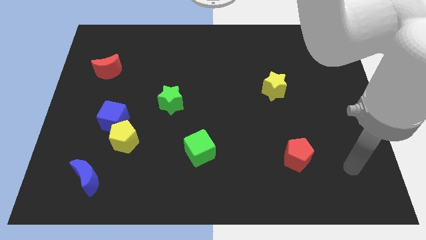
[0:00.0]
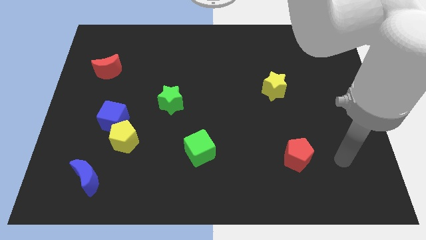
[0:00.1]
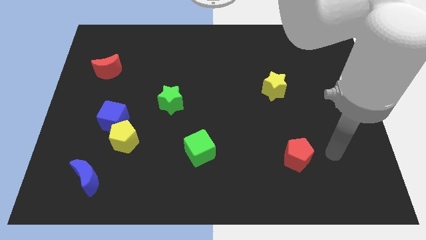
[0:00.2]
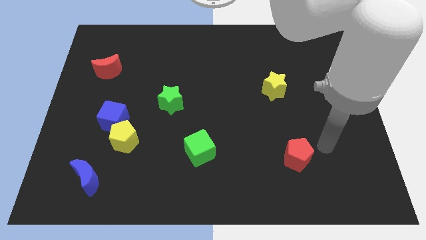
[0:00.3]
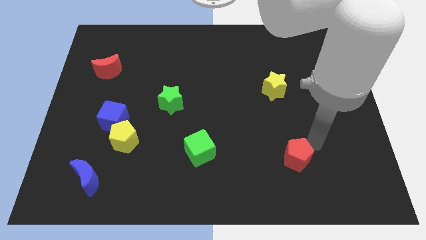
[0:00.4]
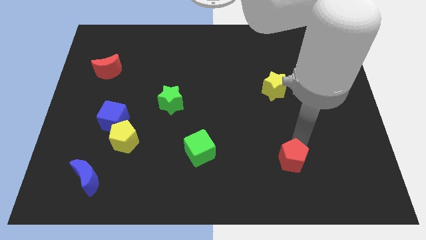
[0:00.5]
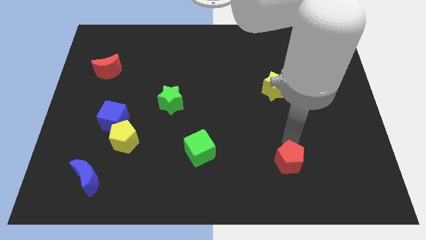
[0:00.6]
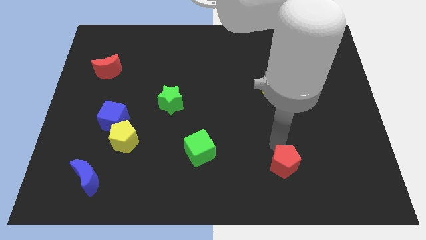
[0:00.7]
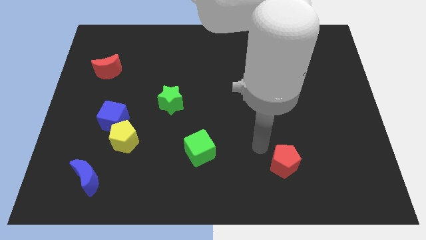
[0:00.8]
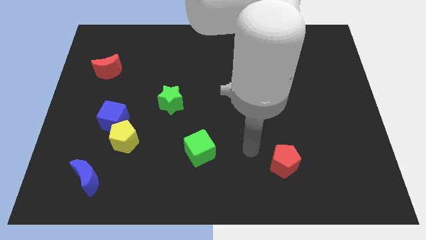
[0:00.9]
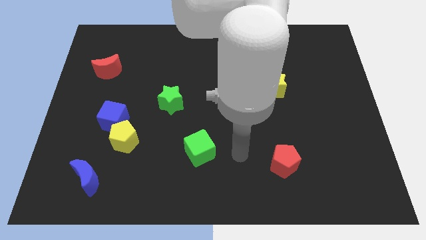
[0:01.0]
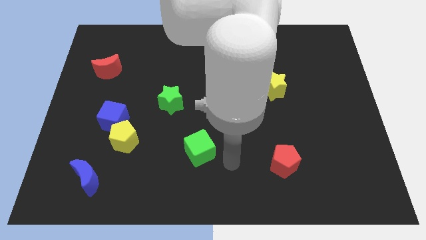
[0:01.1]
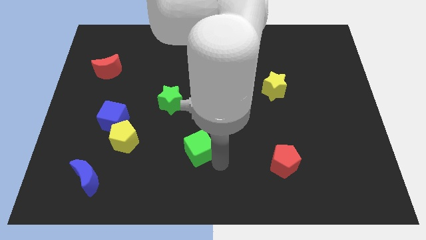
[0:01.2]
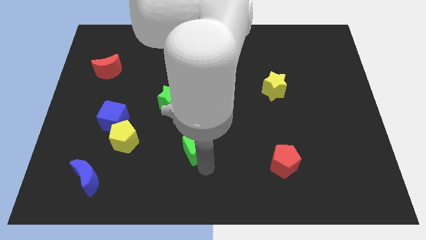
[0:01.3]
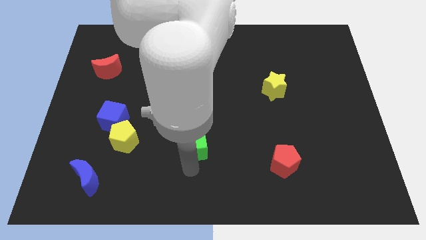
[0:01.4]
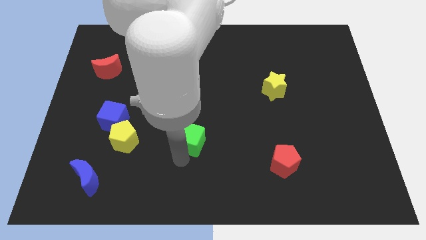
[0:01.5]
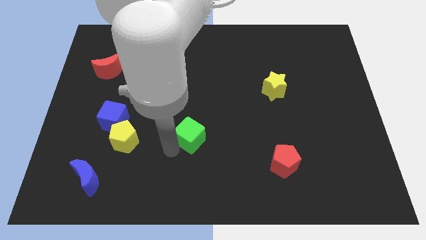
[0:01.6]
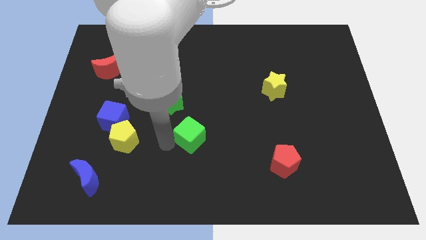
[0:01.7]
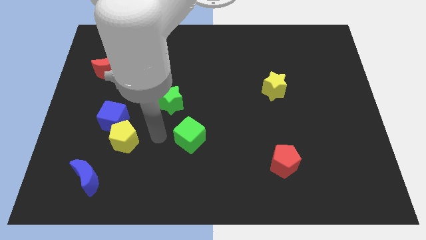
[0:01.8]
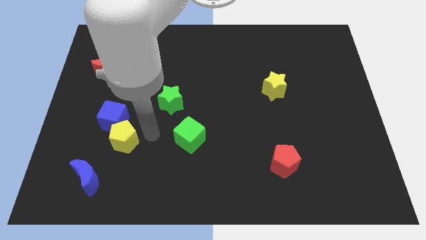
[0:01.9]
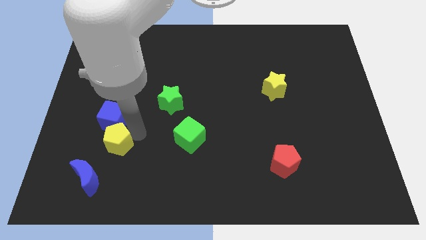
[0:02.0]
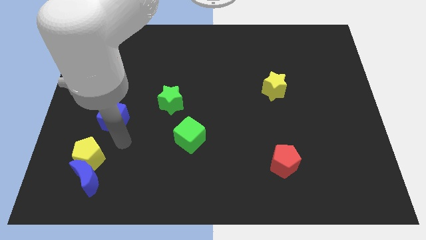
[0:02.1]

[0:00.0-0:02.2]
move the blue cube away from the yellow pentagon

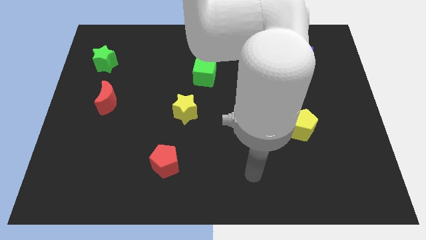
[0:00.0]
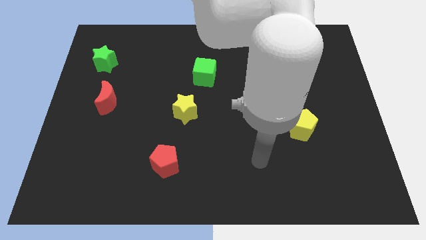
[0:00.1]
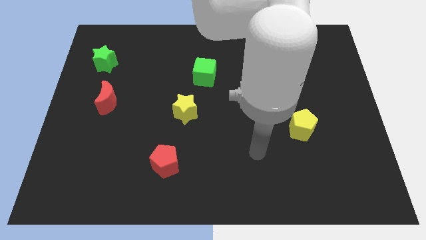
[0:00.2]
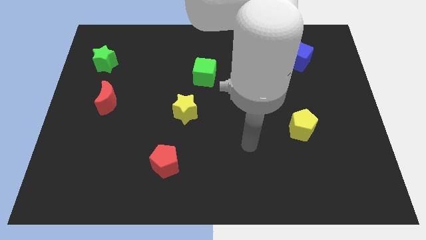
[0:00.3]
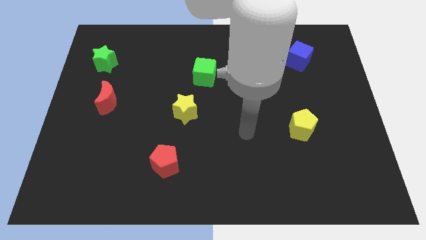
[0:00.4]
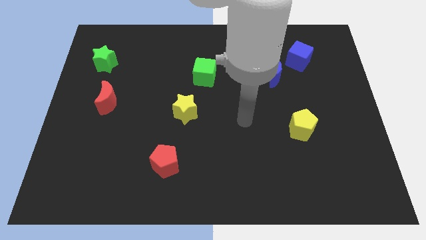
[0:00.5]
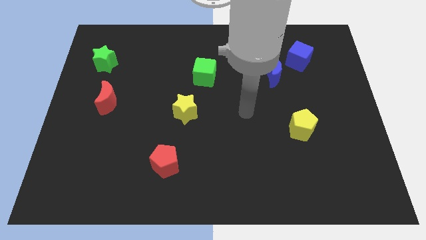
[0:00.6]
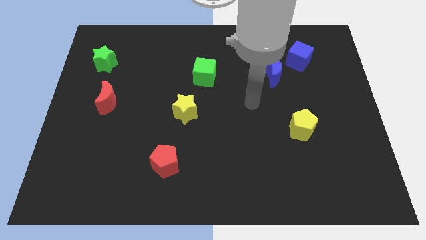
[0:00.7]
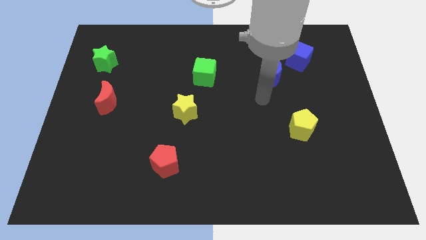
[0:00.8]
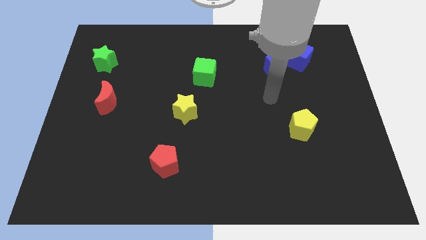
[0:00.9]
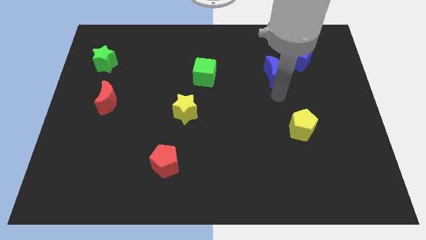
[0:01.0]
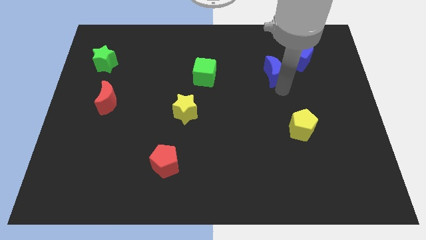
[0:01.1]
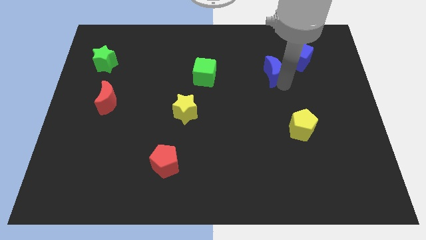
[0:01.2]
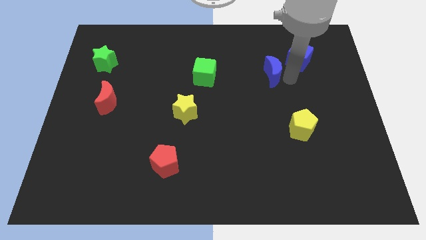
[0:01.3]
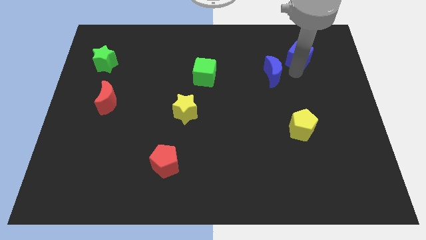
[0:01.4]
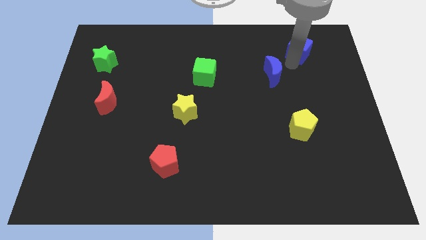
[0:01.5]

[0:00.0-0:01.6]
pull the blue moon apart from the blue cube

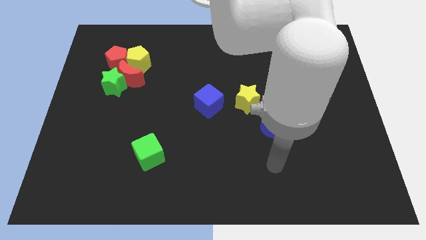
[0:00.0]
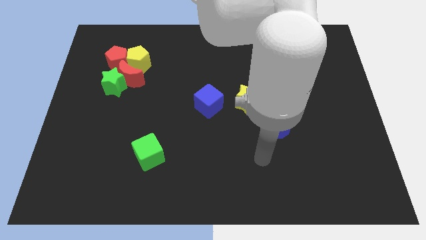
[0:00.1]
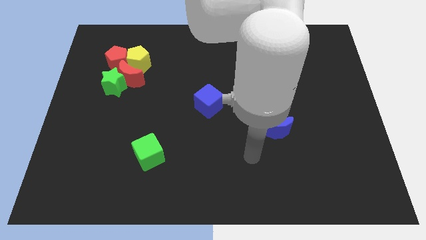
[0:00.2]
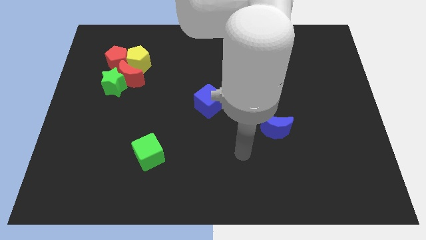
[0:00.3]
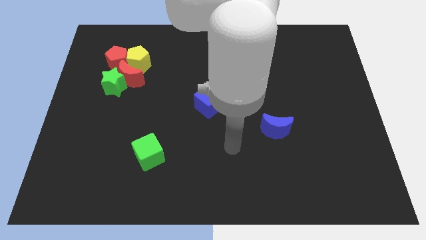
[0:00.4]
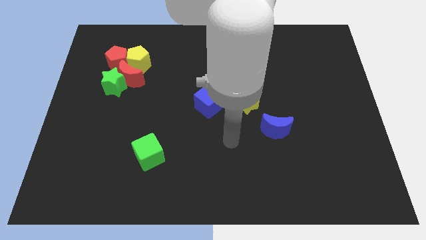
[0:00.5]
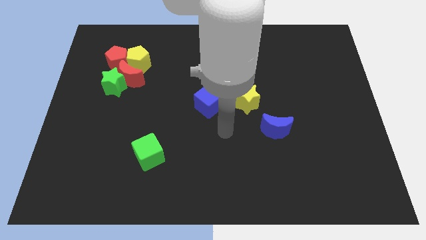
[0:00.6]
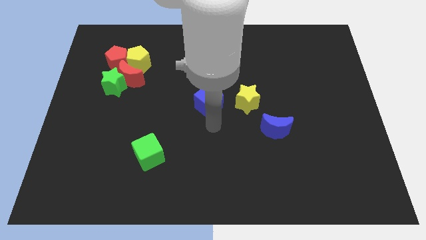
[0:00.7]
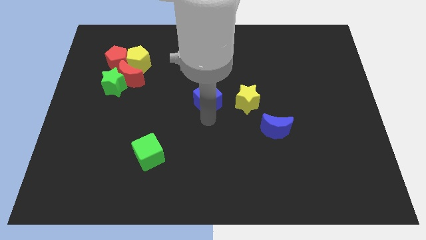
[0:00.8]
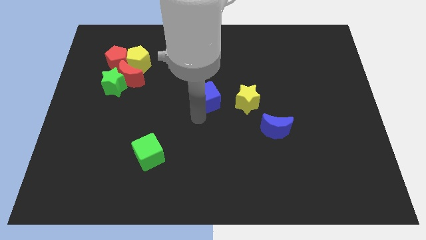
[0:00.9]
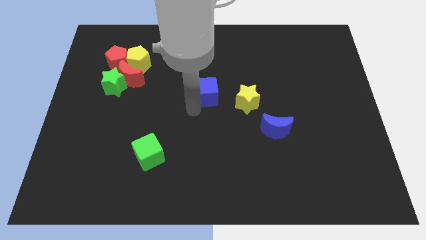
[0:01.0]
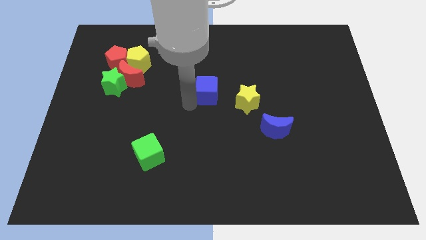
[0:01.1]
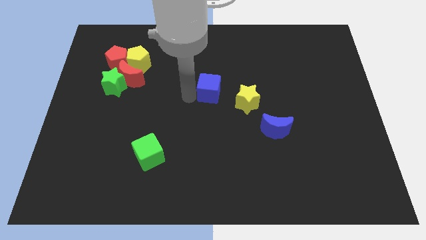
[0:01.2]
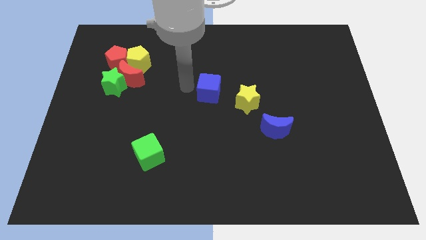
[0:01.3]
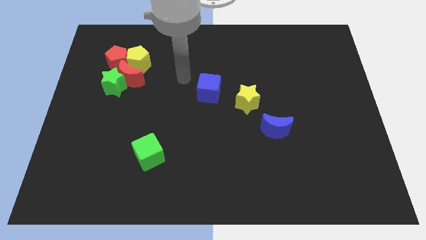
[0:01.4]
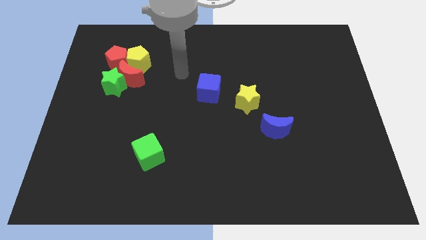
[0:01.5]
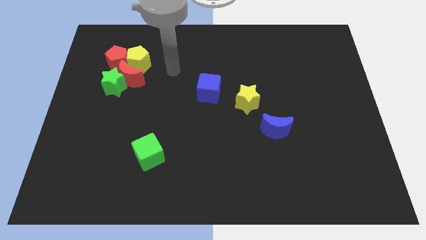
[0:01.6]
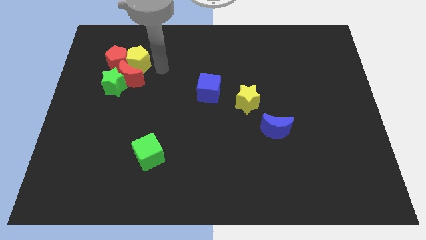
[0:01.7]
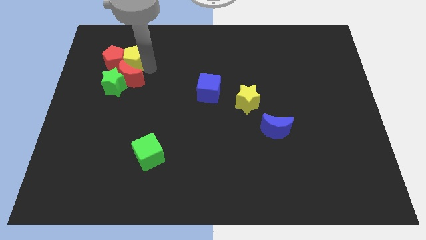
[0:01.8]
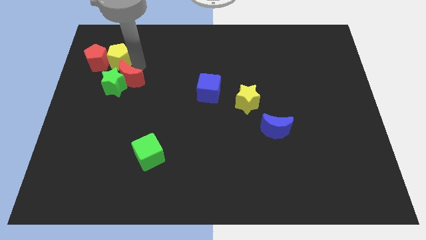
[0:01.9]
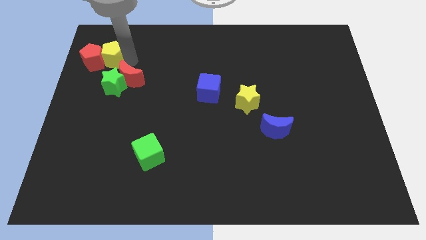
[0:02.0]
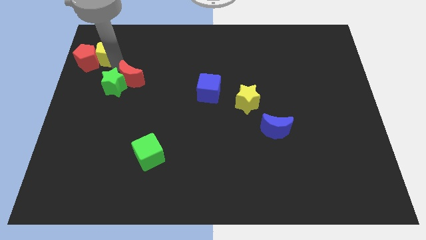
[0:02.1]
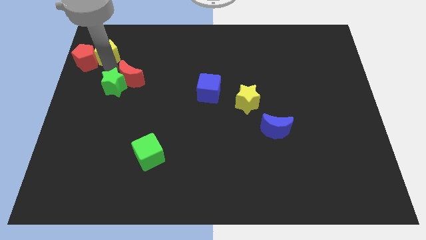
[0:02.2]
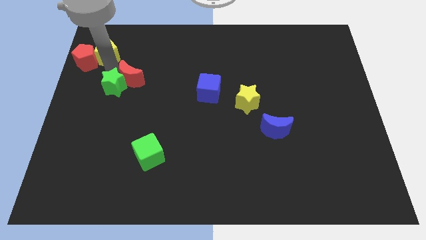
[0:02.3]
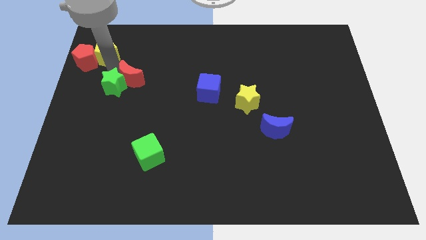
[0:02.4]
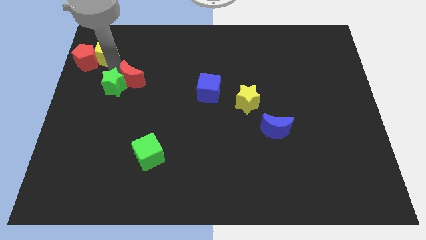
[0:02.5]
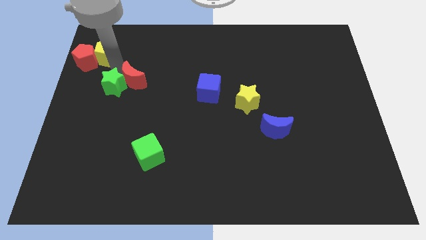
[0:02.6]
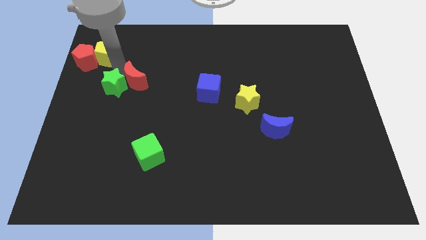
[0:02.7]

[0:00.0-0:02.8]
move the red moon away from the group of blocks

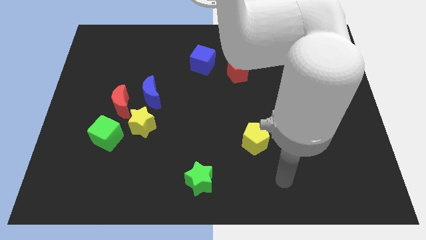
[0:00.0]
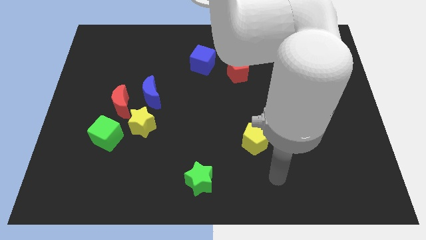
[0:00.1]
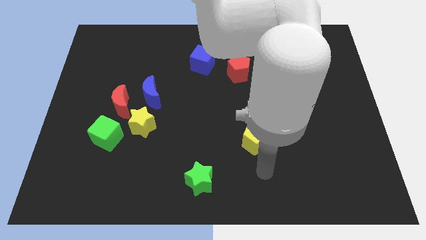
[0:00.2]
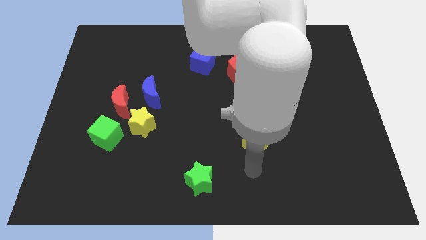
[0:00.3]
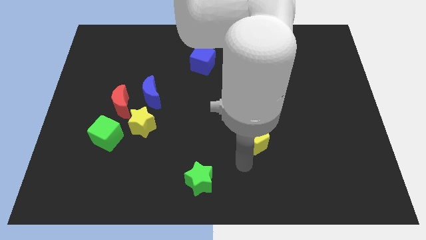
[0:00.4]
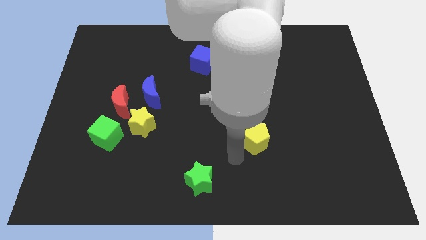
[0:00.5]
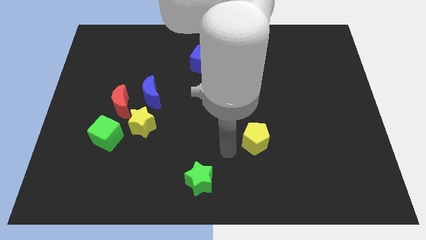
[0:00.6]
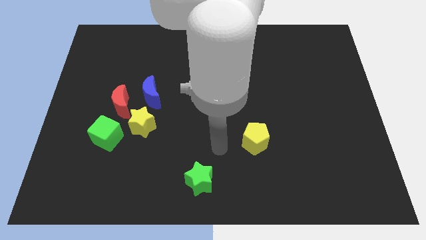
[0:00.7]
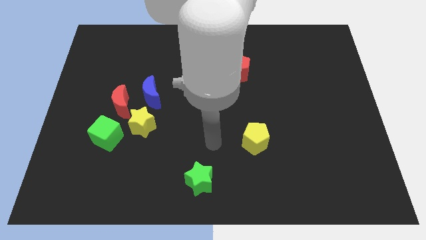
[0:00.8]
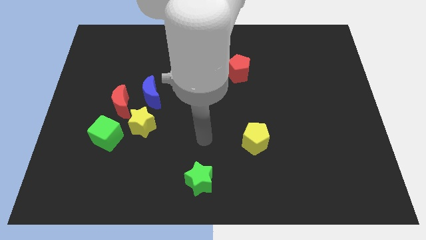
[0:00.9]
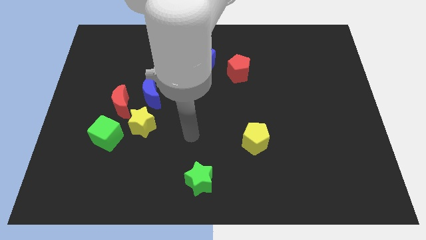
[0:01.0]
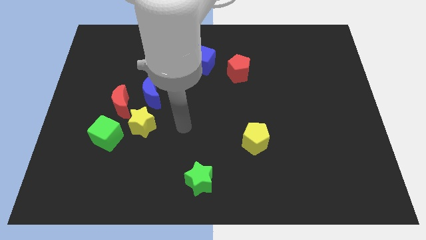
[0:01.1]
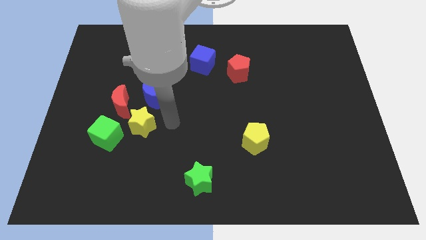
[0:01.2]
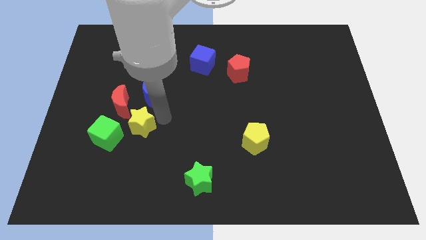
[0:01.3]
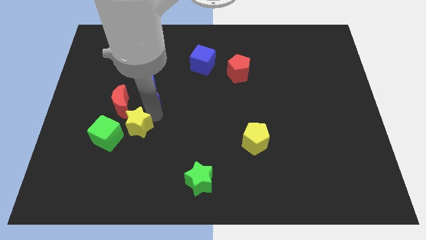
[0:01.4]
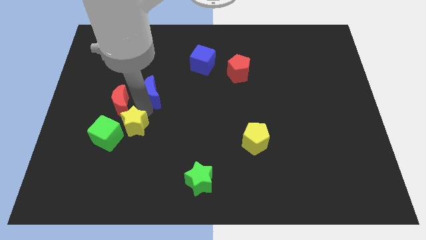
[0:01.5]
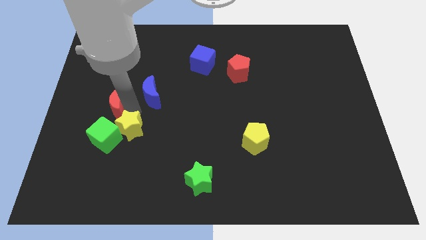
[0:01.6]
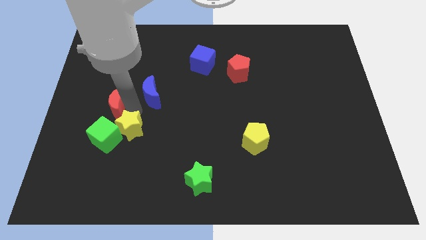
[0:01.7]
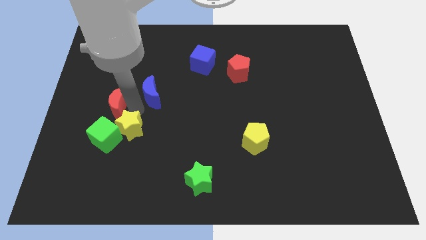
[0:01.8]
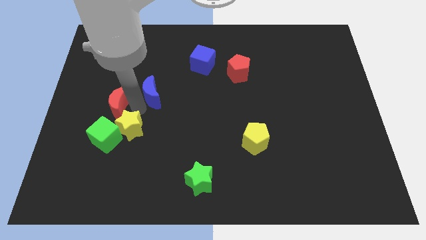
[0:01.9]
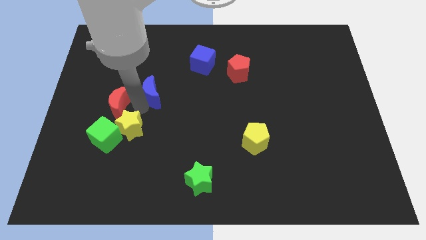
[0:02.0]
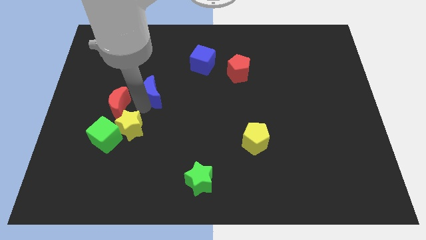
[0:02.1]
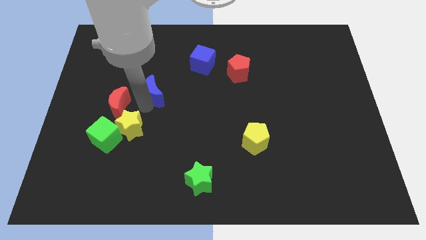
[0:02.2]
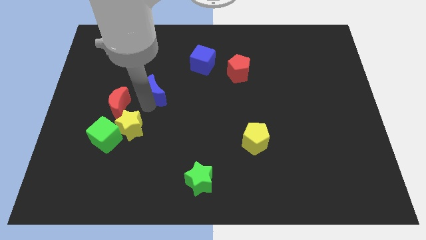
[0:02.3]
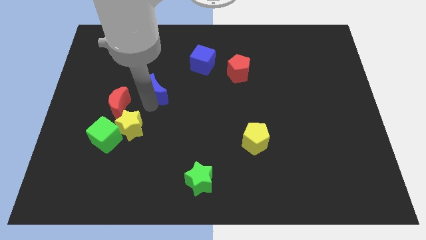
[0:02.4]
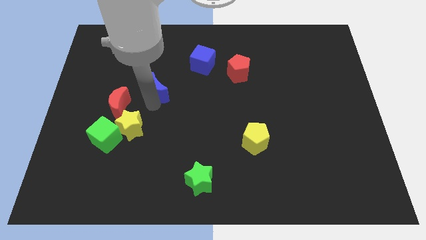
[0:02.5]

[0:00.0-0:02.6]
separate the blue moon from the red moon and yellow star

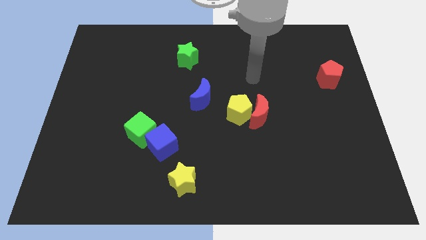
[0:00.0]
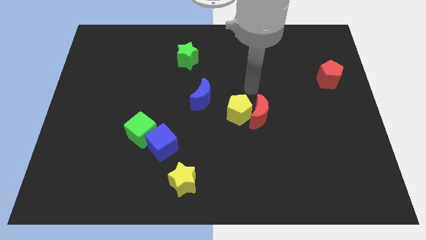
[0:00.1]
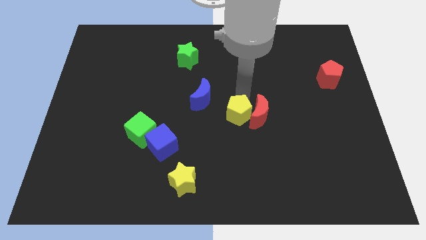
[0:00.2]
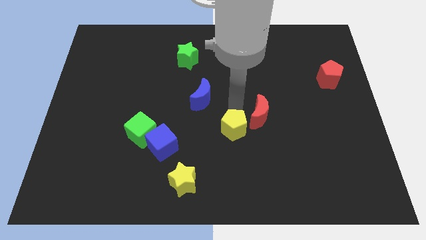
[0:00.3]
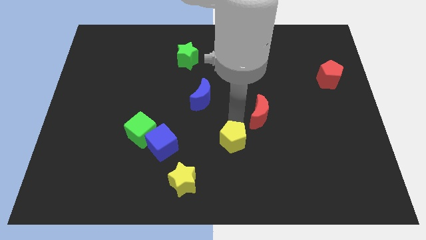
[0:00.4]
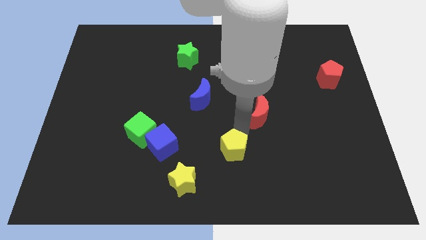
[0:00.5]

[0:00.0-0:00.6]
separate the red moon from the yellow pentagon
